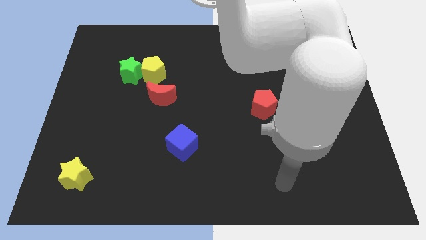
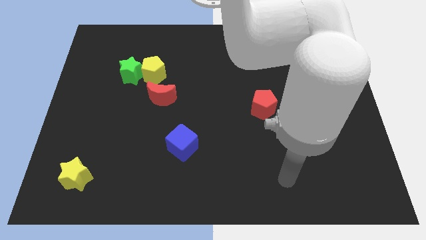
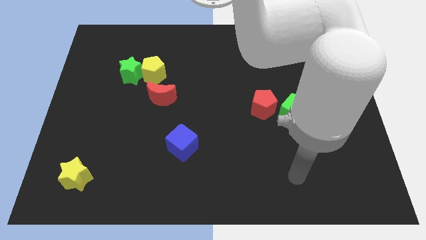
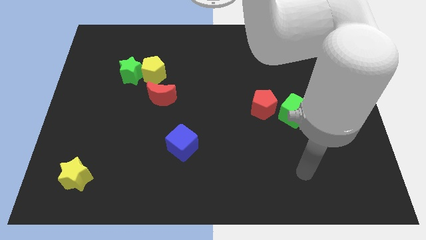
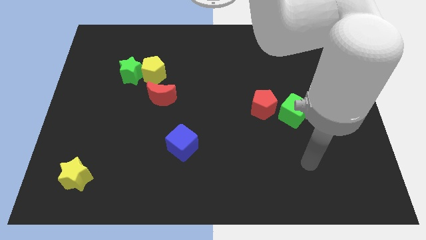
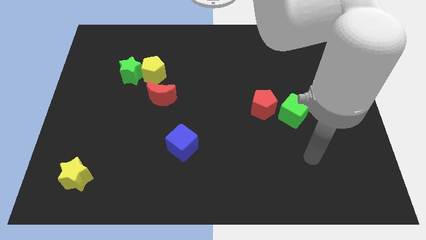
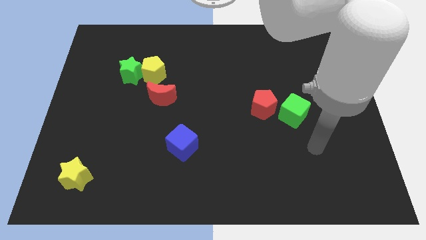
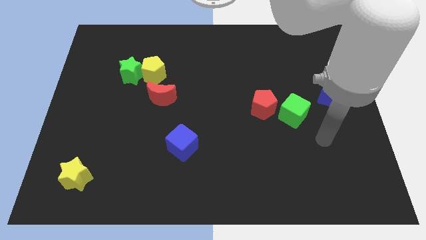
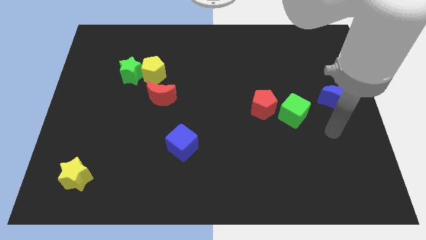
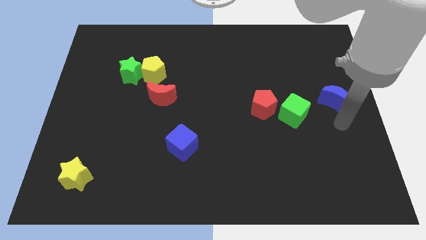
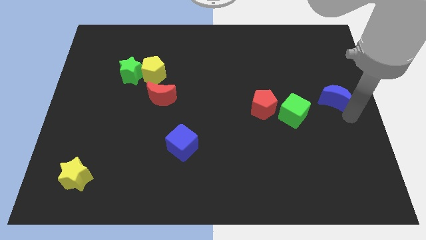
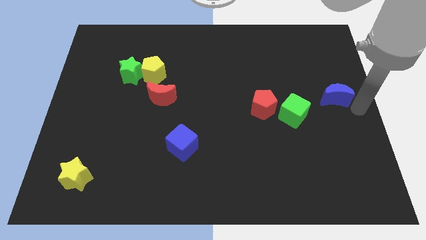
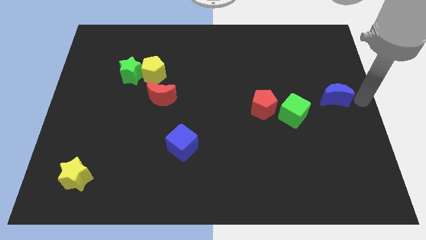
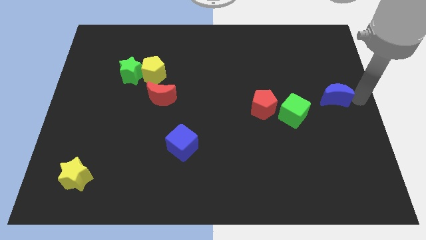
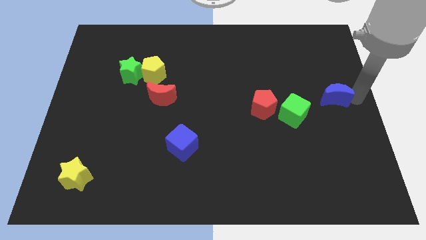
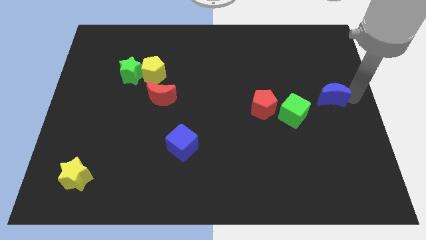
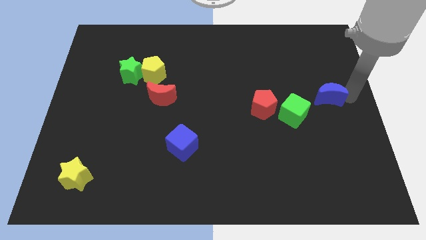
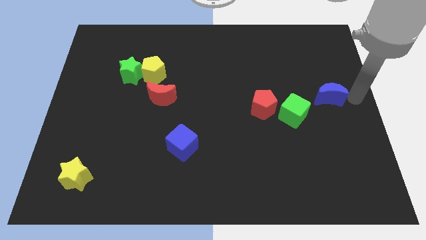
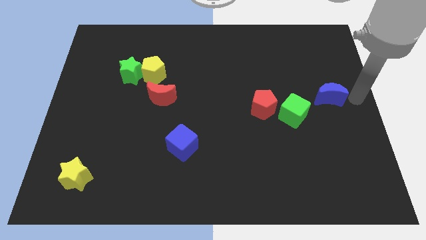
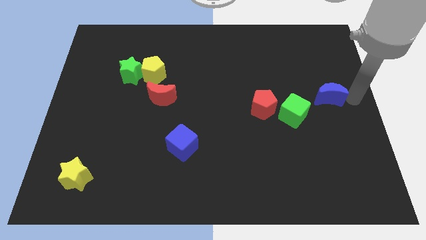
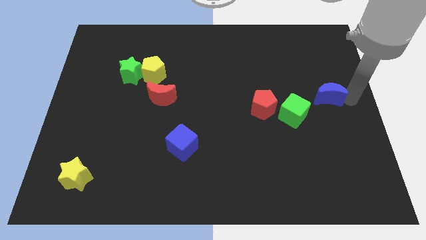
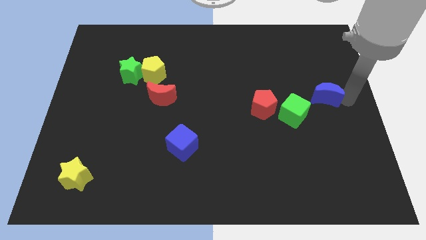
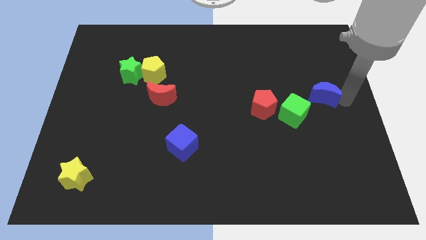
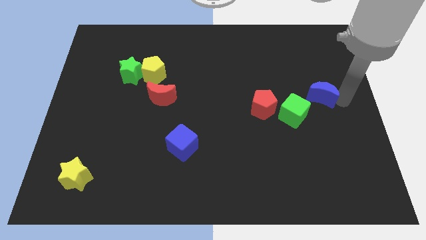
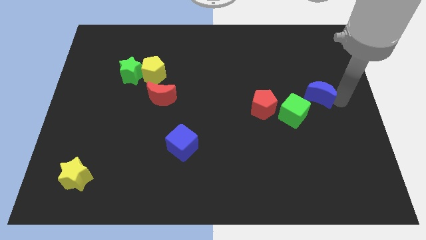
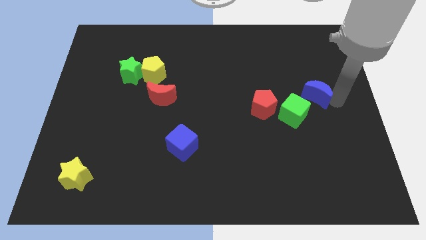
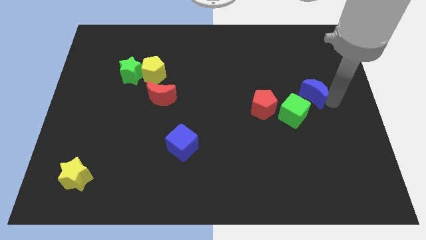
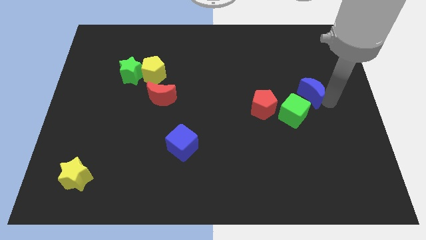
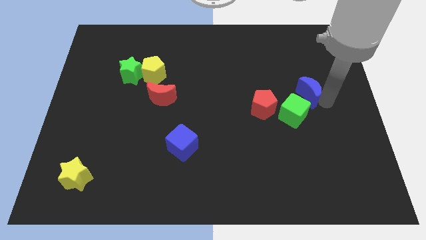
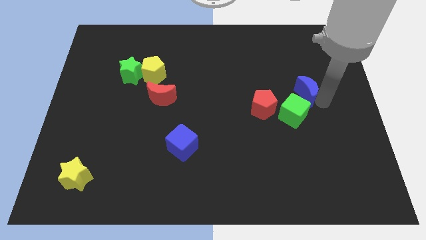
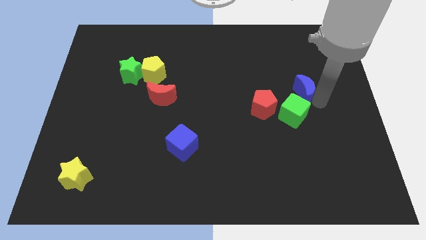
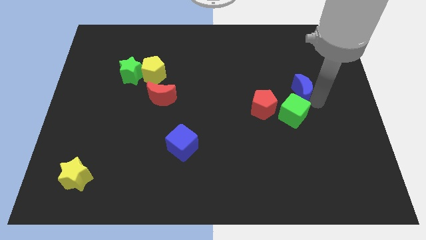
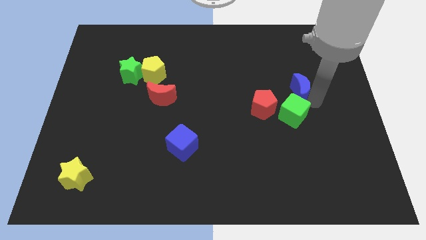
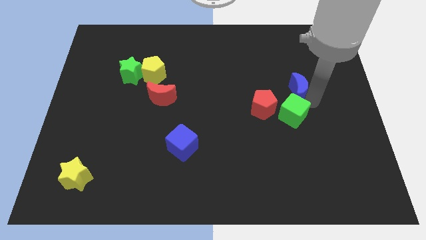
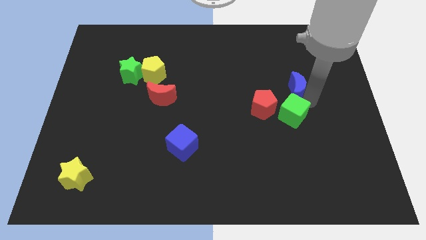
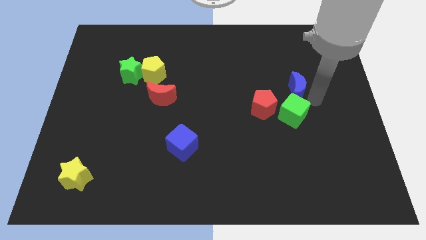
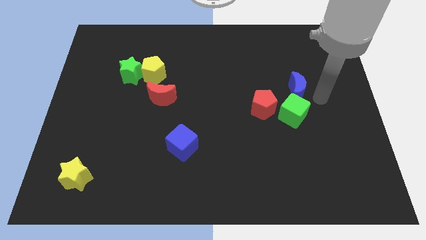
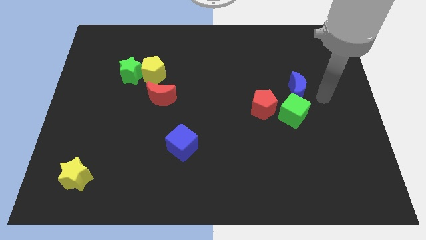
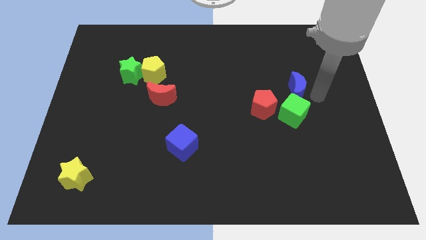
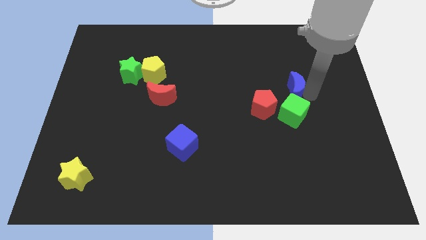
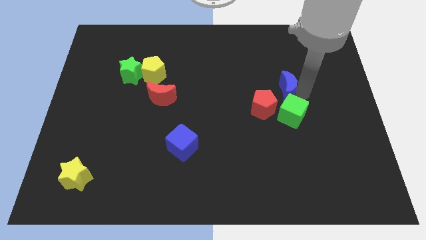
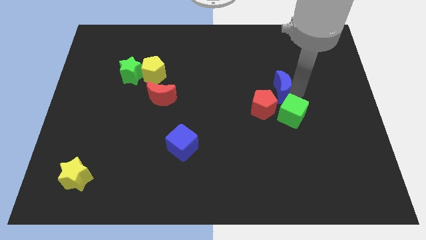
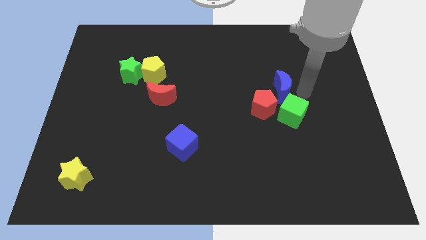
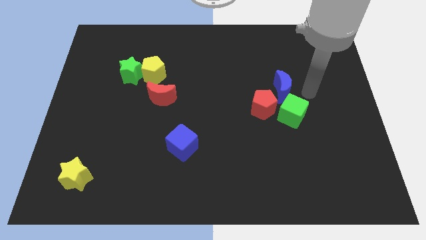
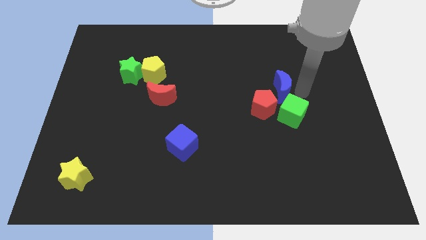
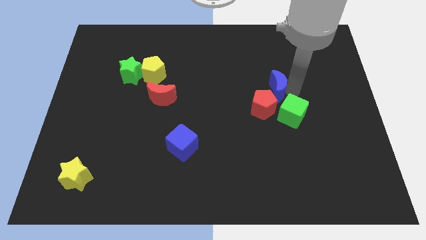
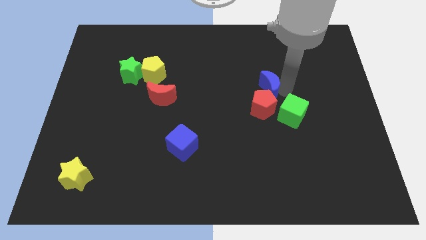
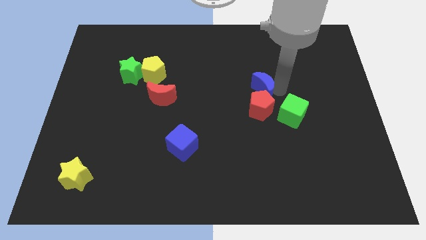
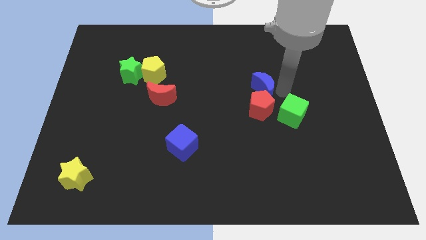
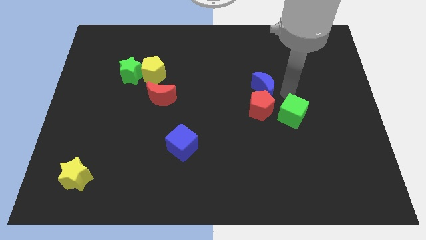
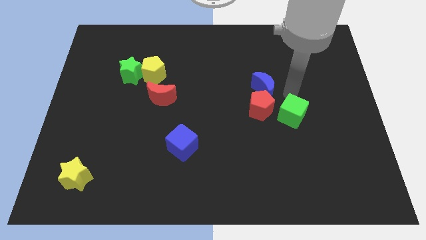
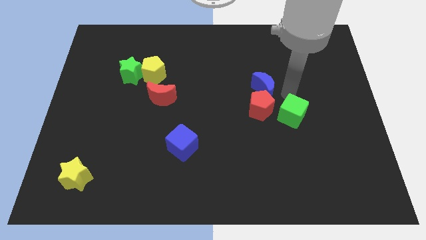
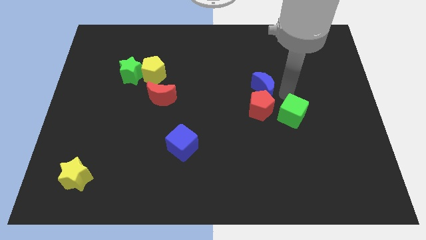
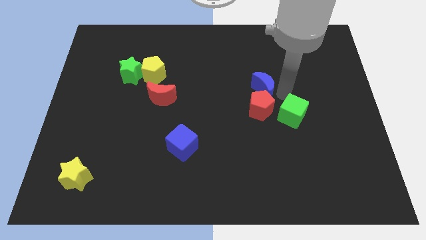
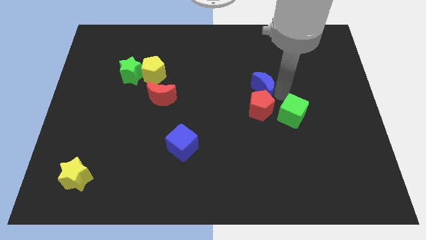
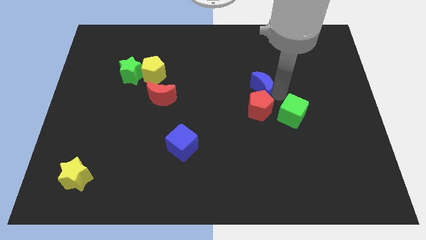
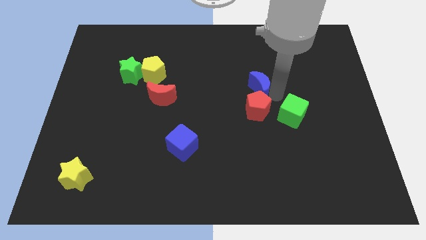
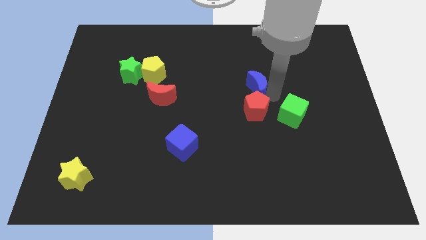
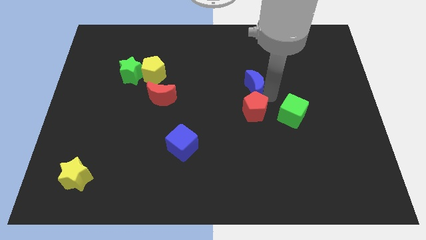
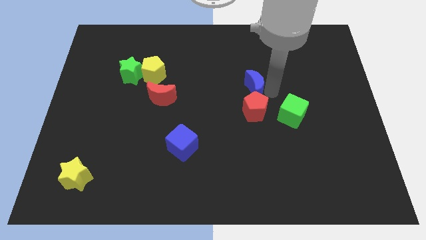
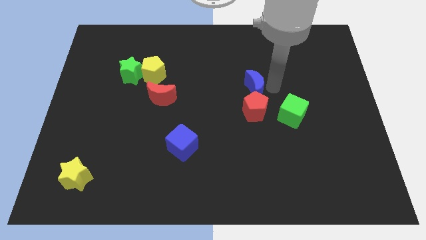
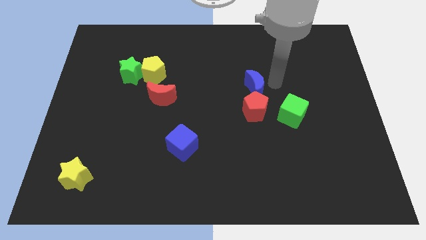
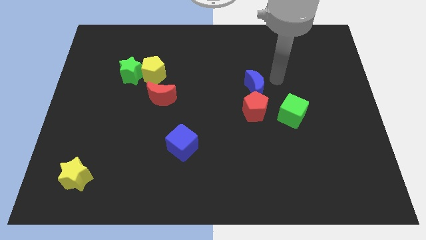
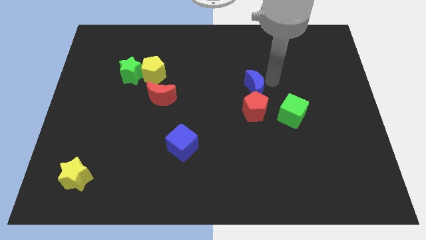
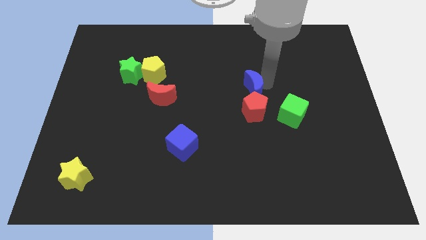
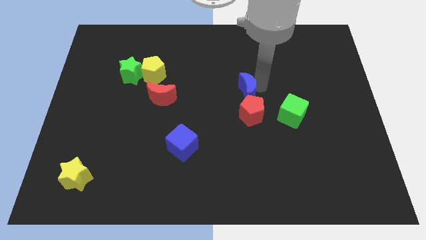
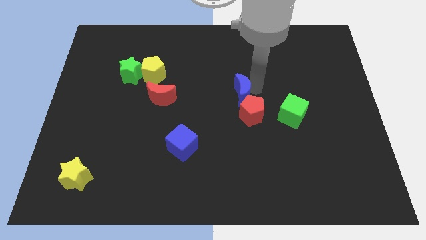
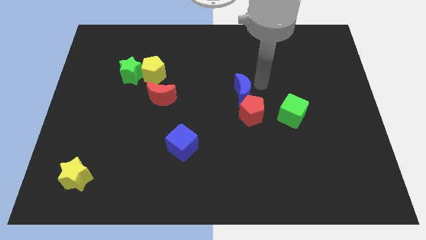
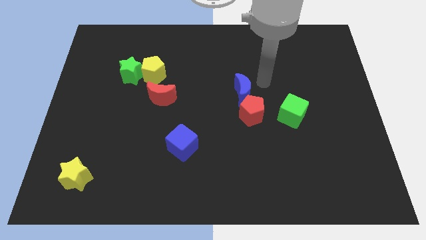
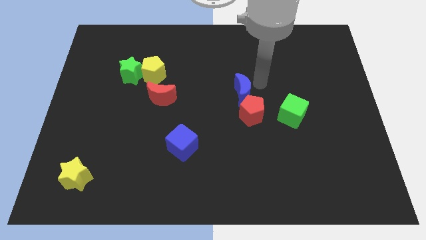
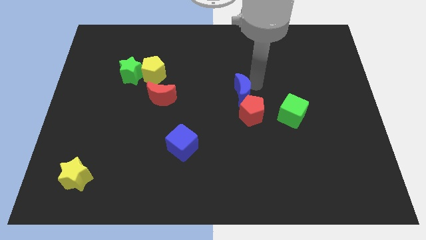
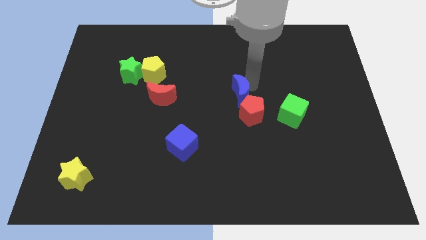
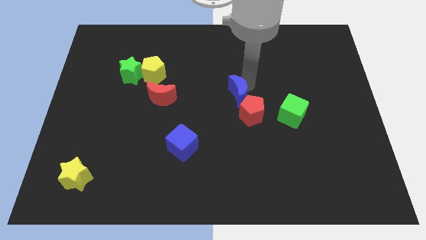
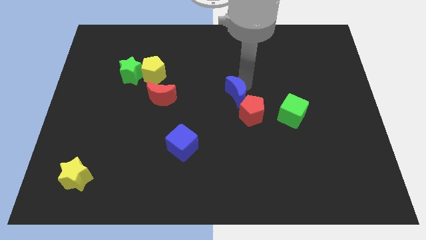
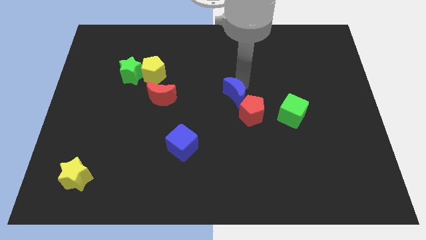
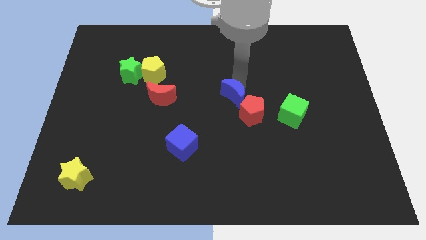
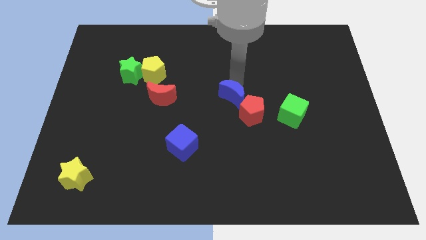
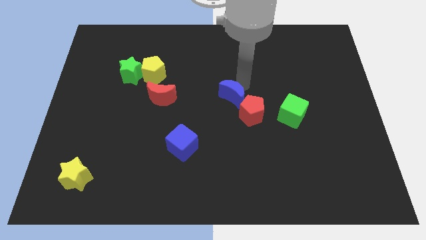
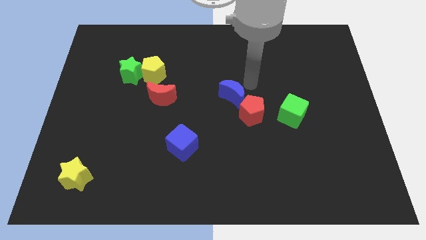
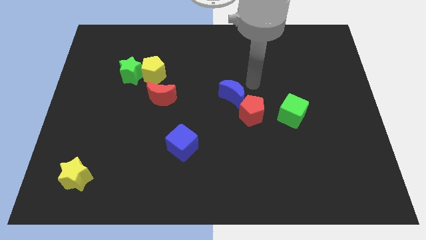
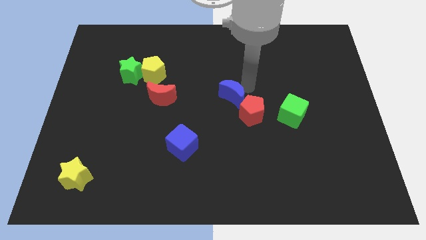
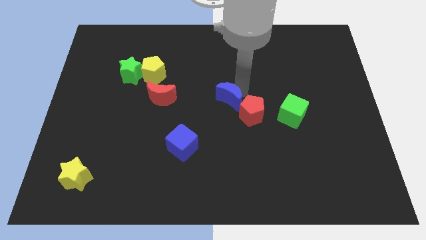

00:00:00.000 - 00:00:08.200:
slide the blue moon to the left of the red pentagon

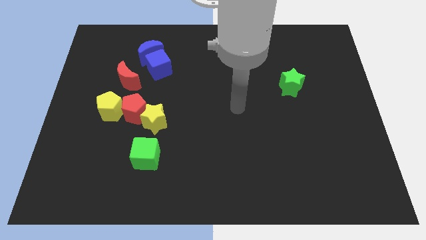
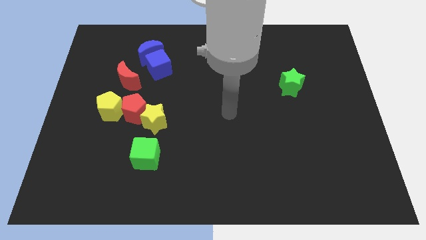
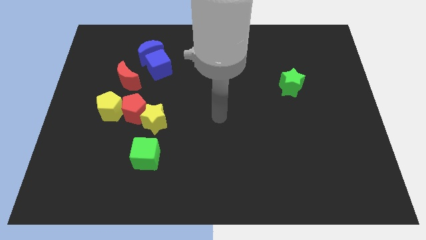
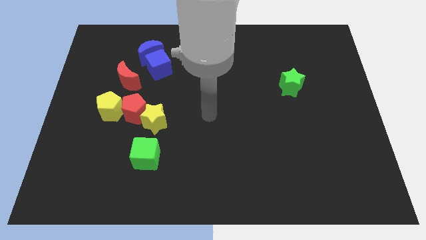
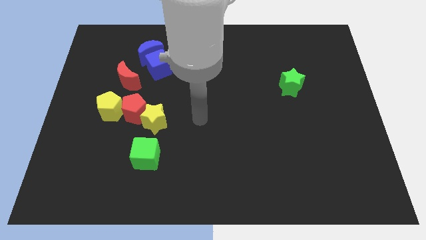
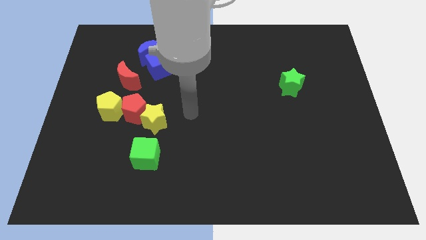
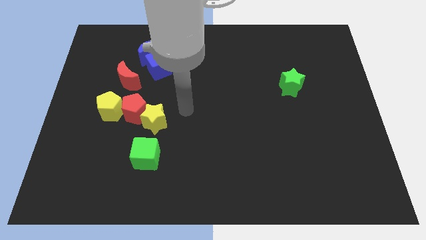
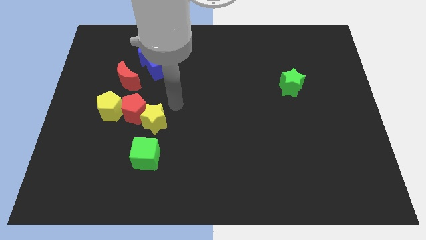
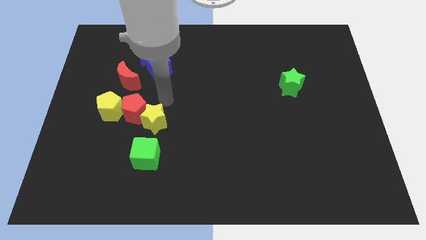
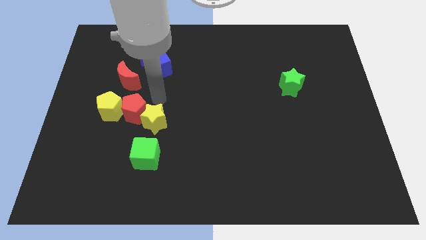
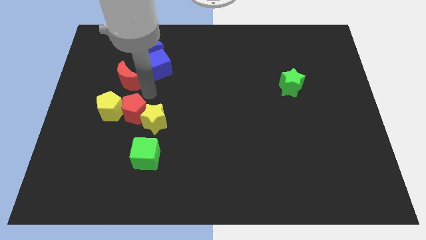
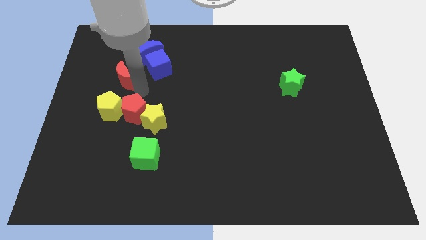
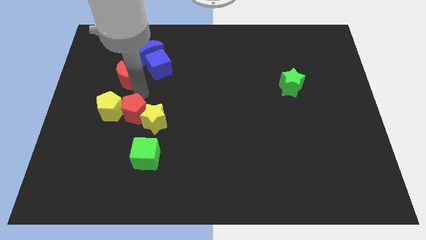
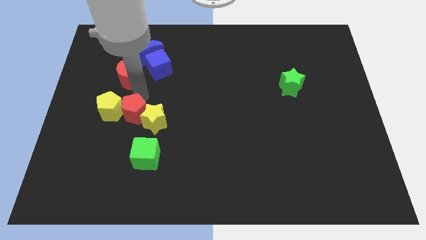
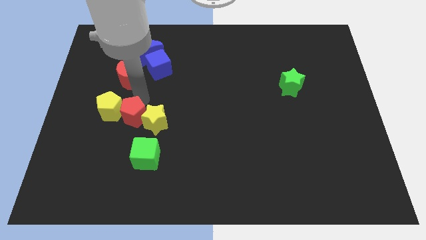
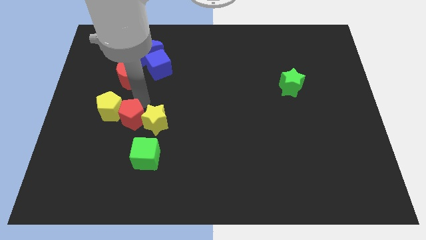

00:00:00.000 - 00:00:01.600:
push the red pentagon to the bottom left of the yellow star
